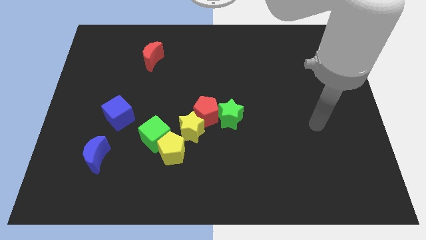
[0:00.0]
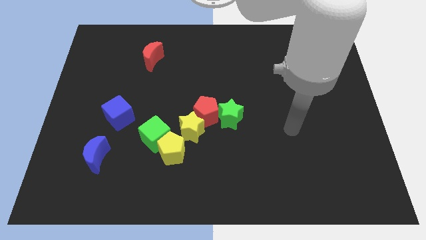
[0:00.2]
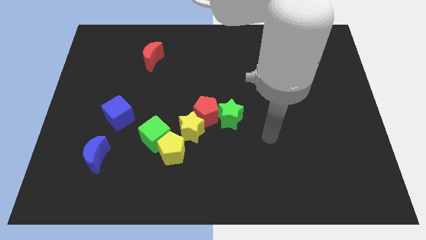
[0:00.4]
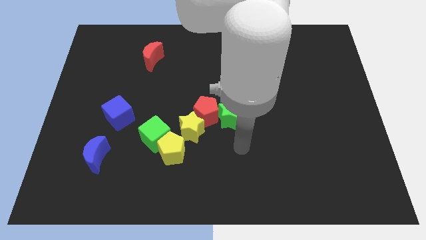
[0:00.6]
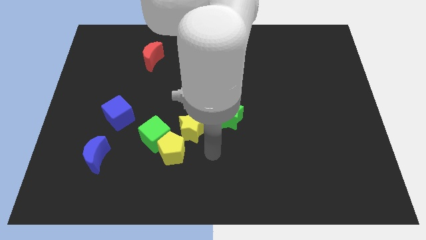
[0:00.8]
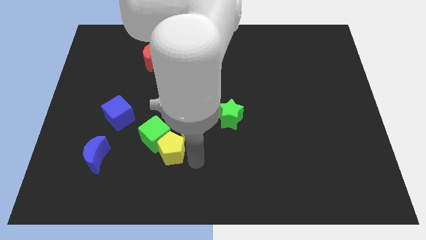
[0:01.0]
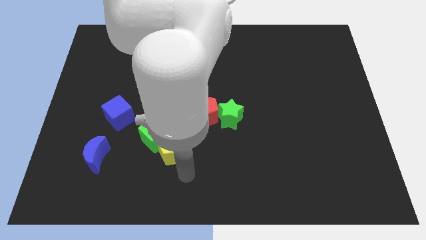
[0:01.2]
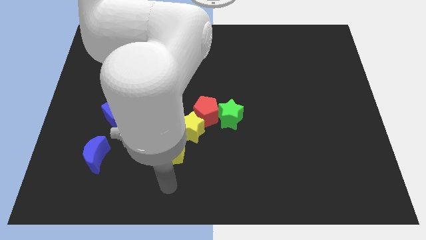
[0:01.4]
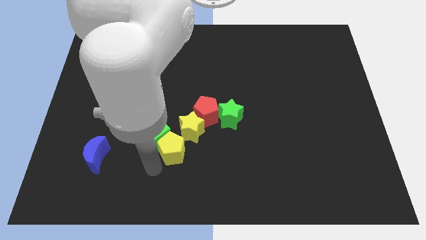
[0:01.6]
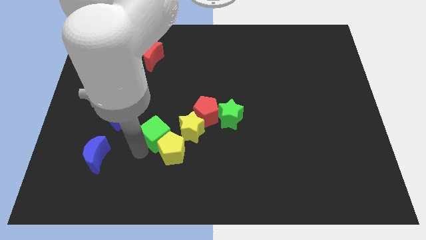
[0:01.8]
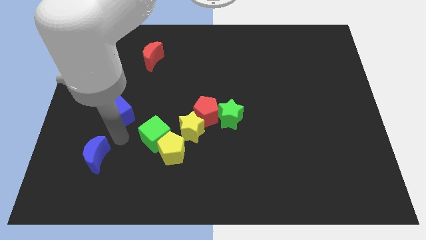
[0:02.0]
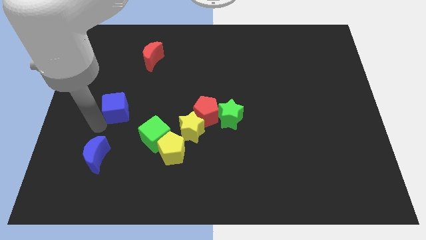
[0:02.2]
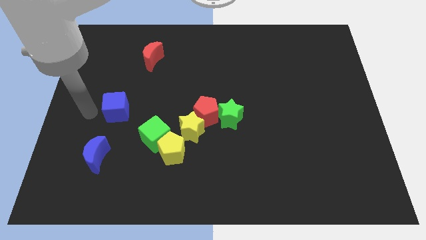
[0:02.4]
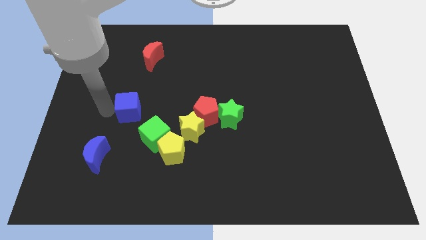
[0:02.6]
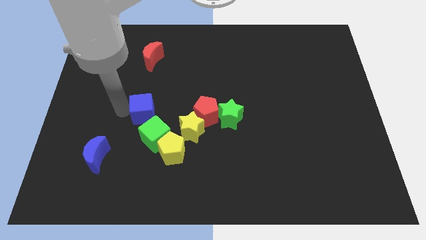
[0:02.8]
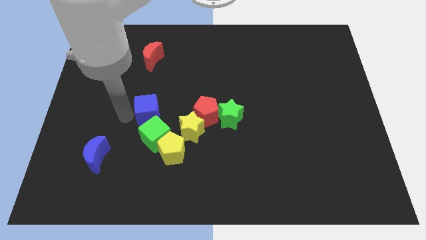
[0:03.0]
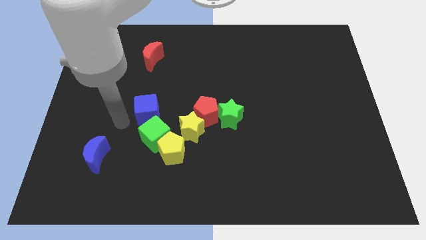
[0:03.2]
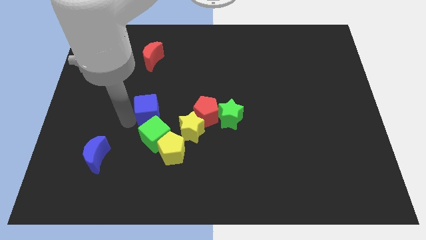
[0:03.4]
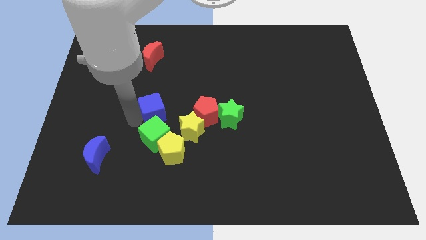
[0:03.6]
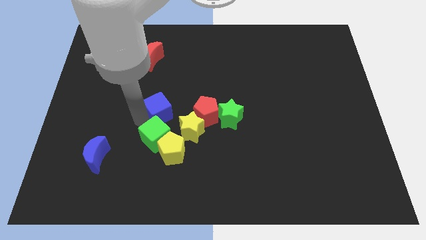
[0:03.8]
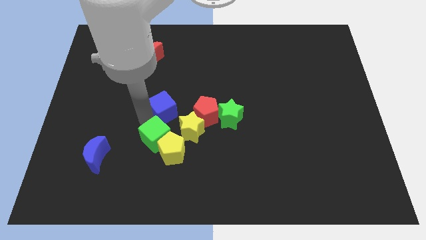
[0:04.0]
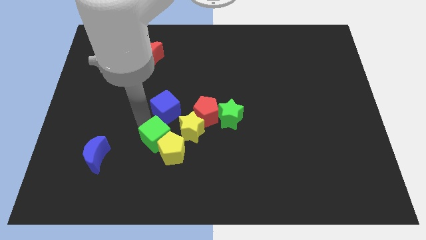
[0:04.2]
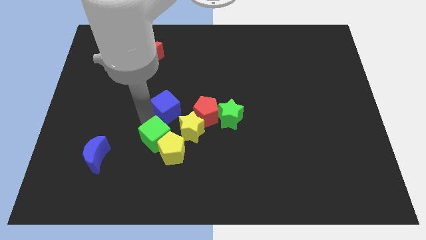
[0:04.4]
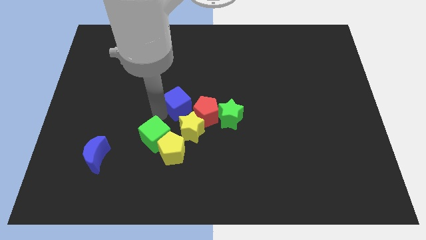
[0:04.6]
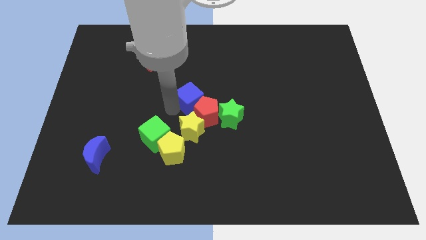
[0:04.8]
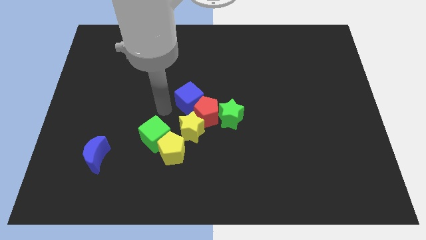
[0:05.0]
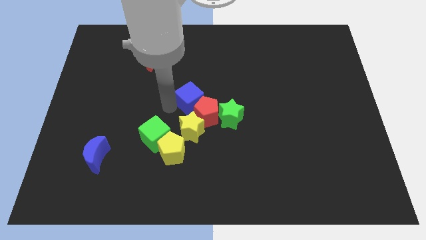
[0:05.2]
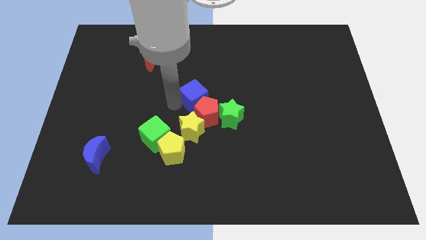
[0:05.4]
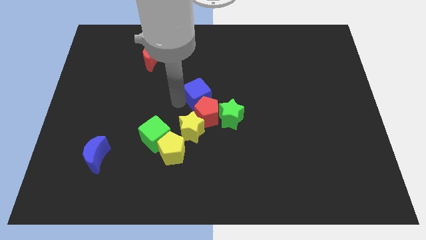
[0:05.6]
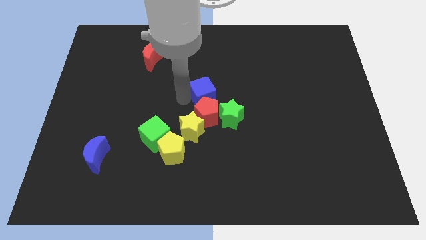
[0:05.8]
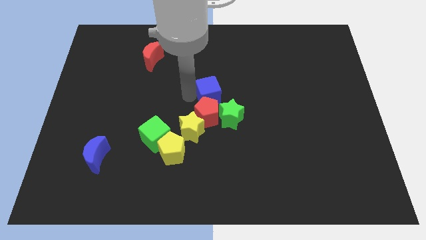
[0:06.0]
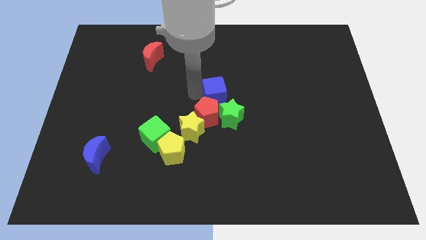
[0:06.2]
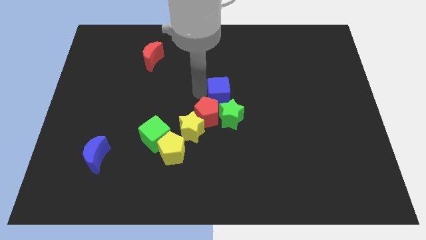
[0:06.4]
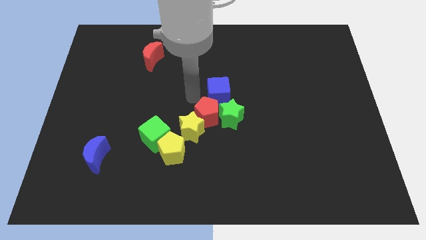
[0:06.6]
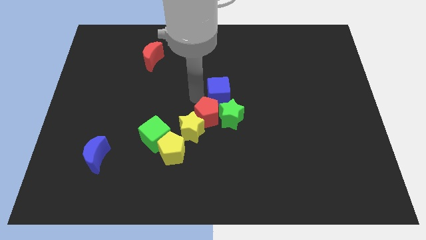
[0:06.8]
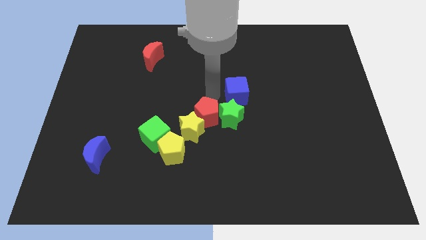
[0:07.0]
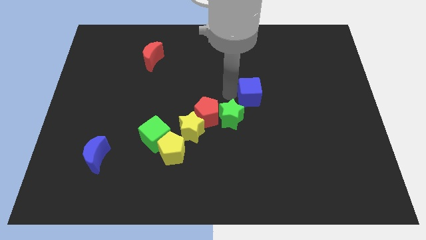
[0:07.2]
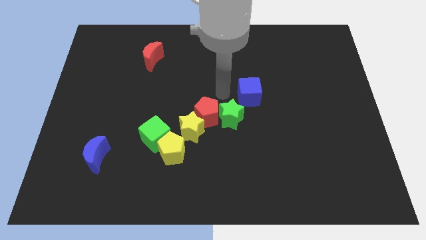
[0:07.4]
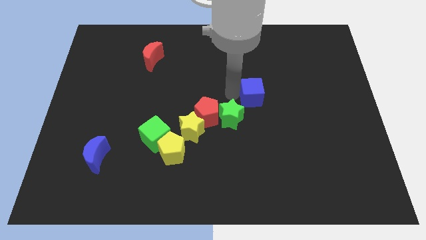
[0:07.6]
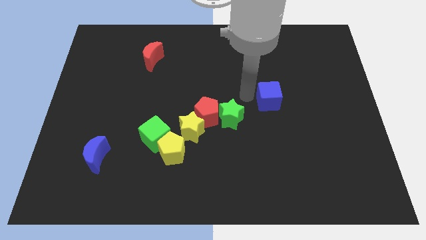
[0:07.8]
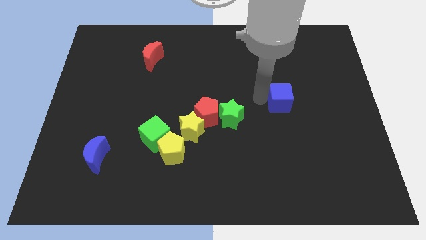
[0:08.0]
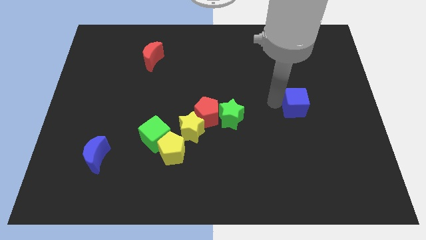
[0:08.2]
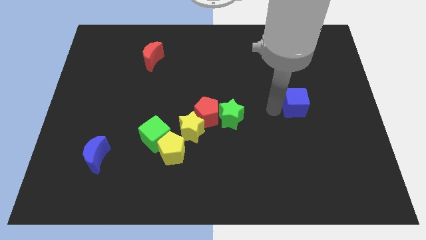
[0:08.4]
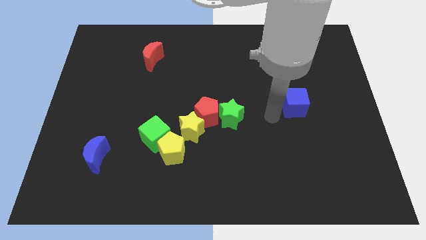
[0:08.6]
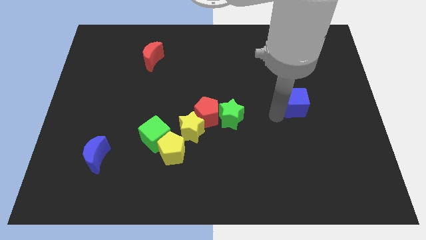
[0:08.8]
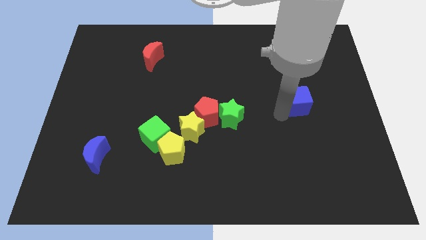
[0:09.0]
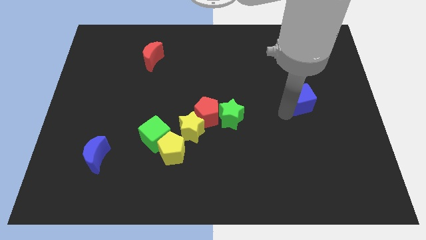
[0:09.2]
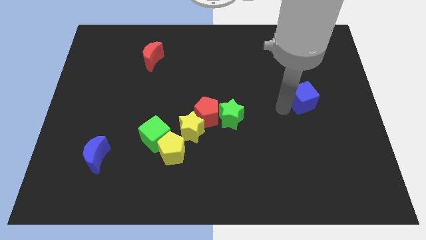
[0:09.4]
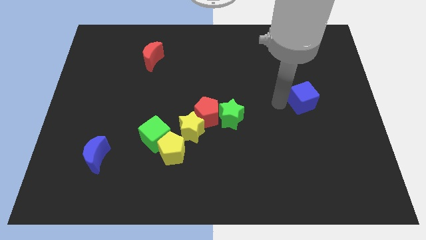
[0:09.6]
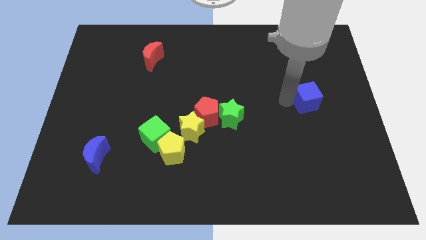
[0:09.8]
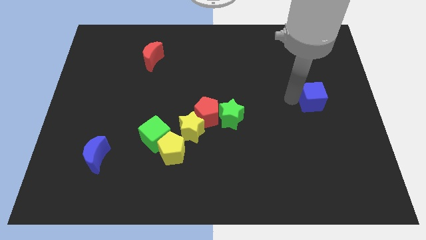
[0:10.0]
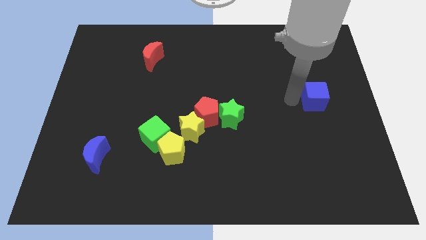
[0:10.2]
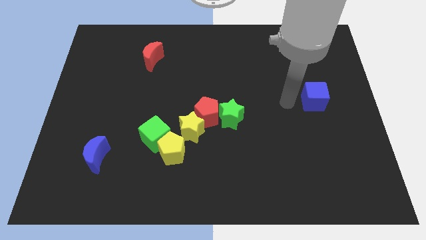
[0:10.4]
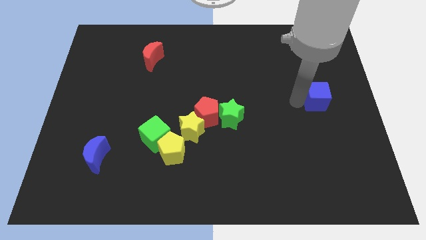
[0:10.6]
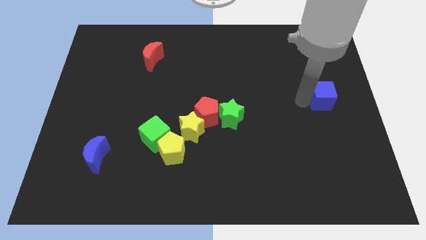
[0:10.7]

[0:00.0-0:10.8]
push the blue cube to the right side
